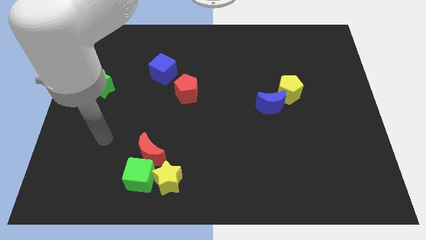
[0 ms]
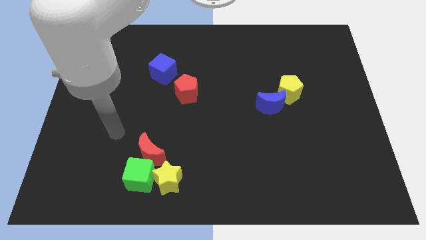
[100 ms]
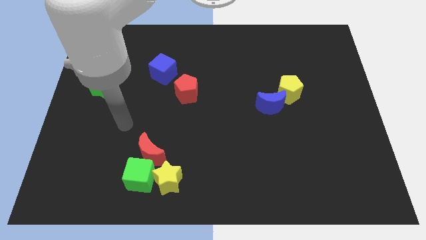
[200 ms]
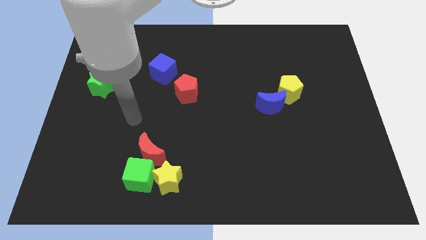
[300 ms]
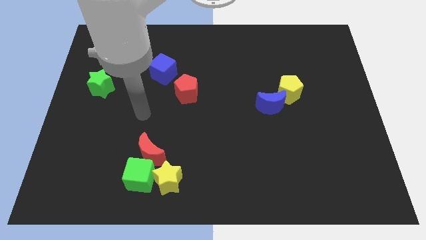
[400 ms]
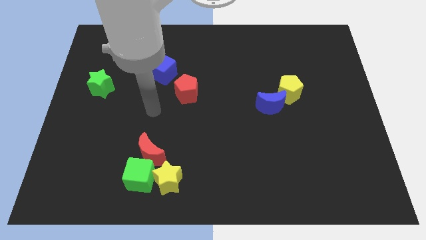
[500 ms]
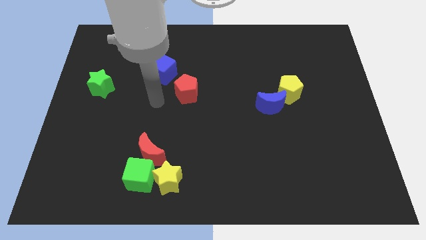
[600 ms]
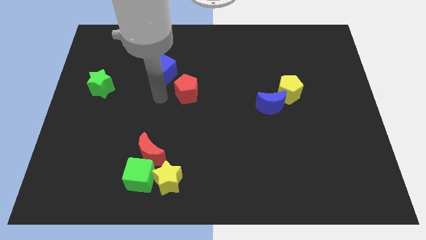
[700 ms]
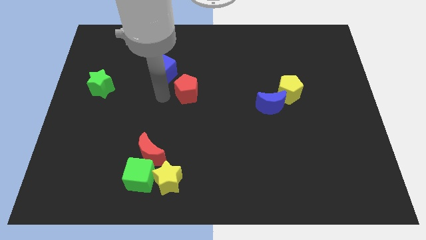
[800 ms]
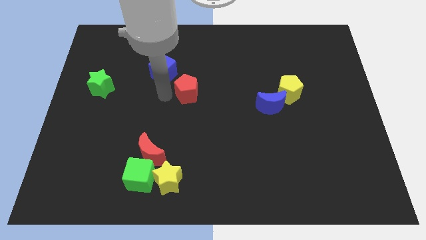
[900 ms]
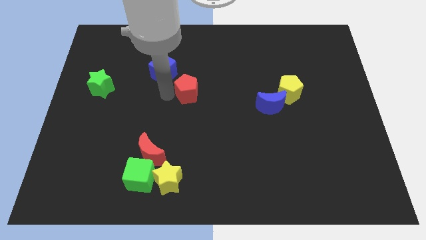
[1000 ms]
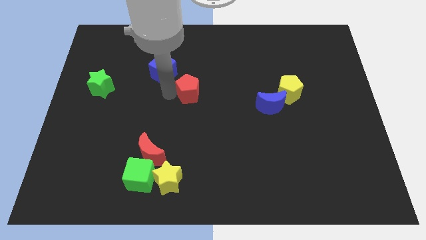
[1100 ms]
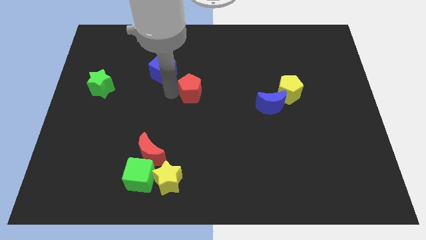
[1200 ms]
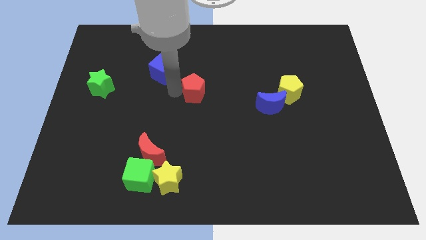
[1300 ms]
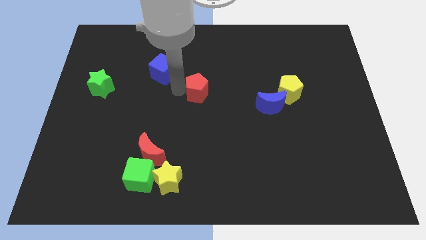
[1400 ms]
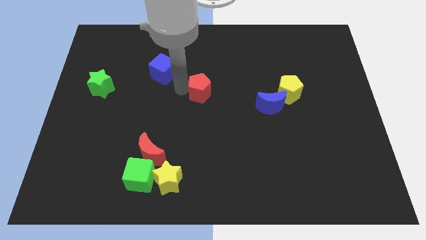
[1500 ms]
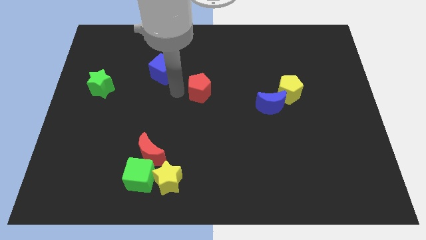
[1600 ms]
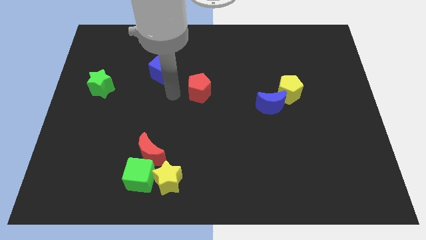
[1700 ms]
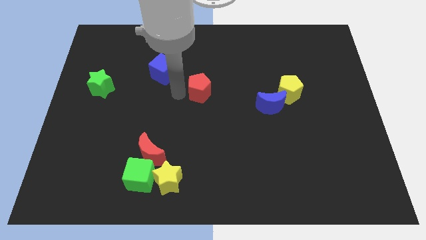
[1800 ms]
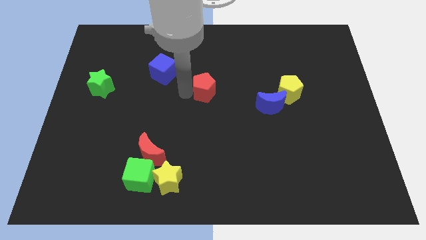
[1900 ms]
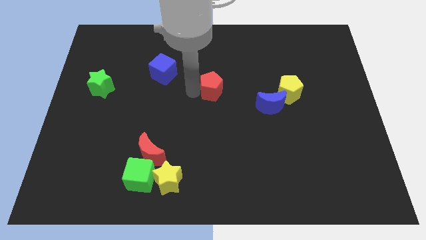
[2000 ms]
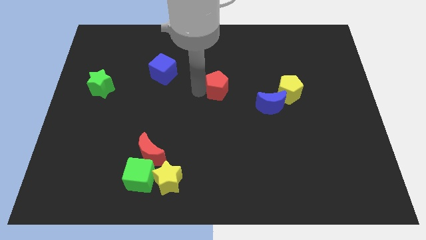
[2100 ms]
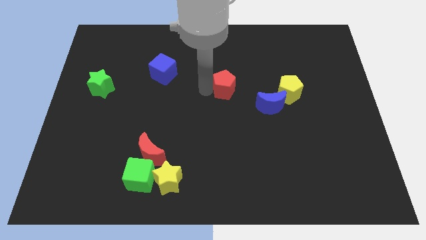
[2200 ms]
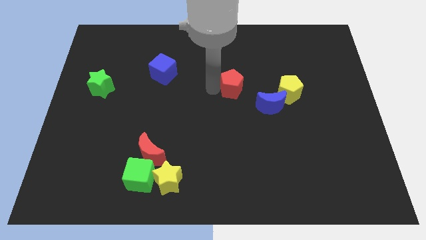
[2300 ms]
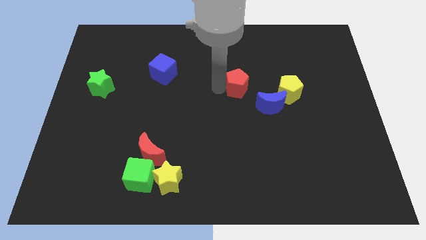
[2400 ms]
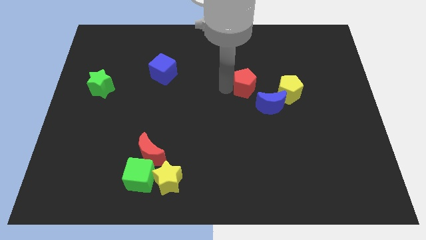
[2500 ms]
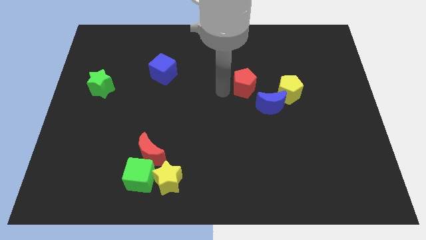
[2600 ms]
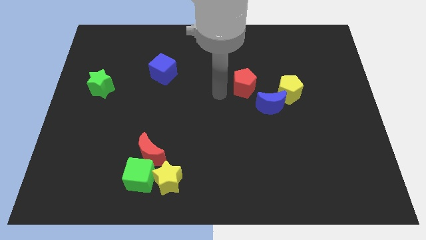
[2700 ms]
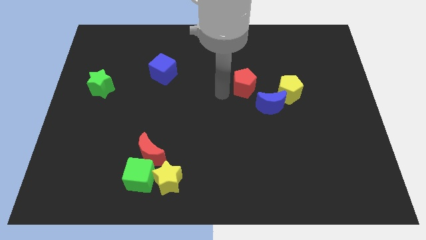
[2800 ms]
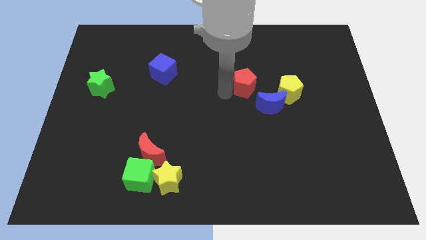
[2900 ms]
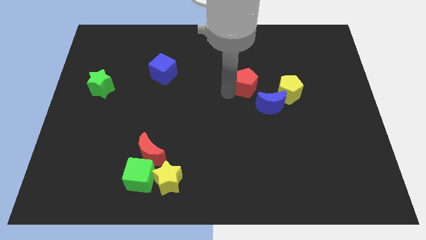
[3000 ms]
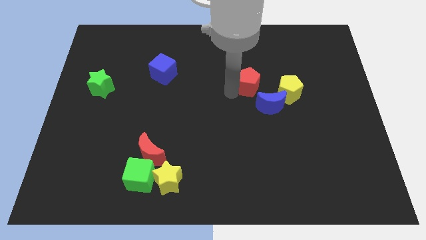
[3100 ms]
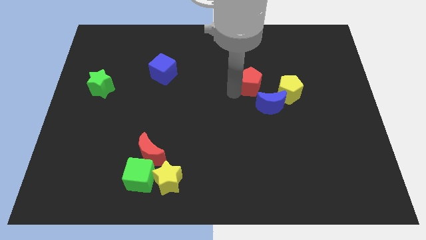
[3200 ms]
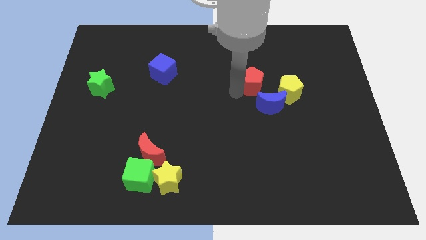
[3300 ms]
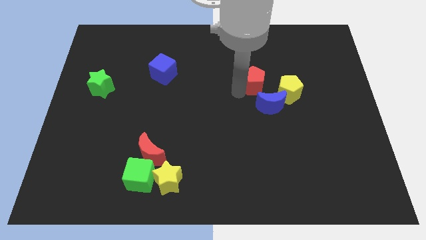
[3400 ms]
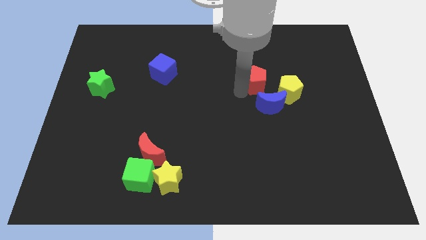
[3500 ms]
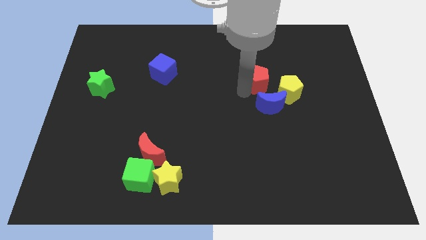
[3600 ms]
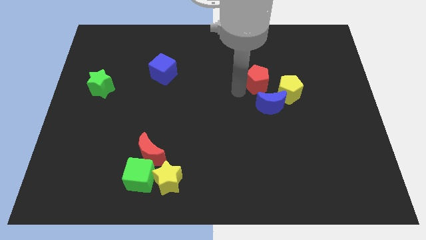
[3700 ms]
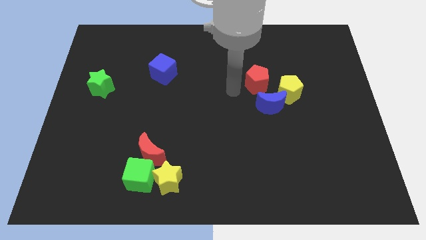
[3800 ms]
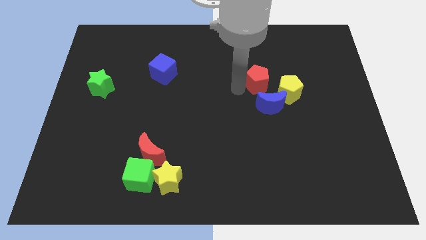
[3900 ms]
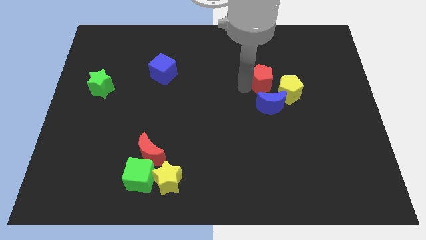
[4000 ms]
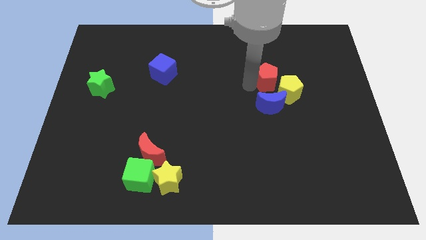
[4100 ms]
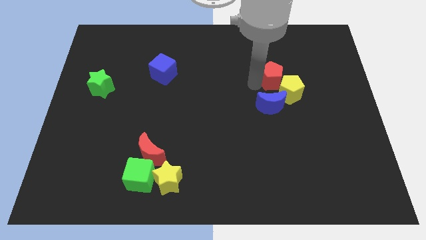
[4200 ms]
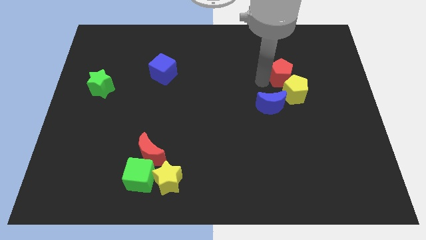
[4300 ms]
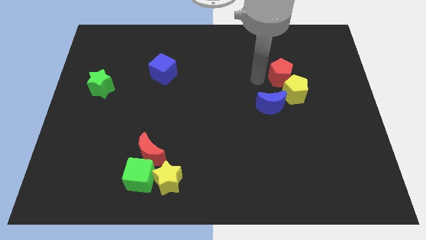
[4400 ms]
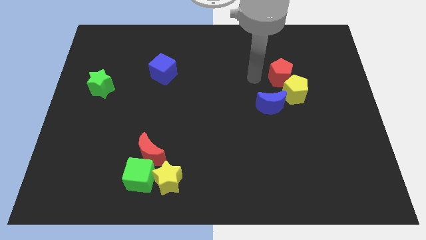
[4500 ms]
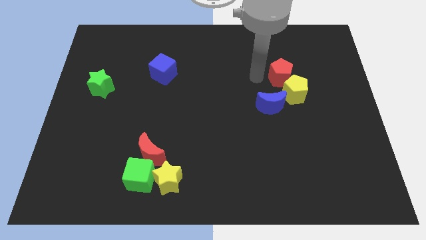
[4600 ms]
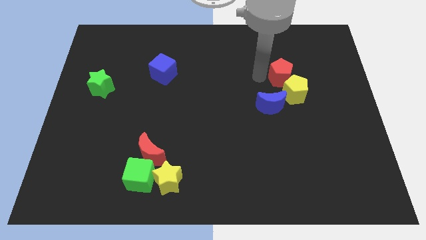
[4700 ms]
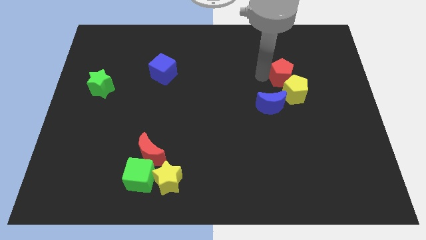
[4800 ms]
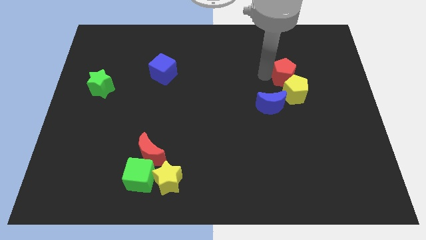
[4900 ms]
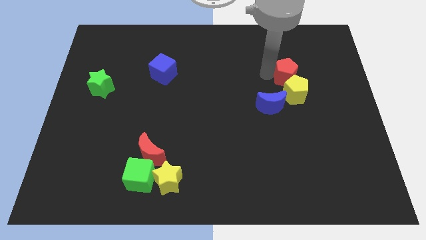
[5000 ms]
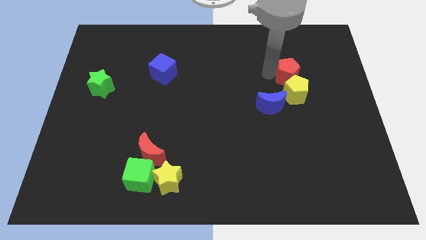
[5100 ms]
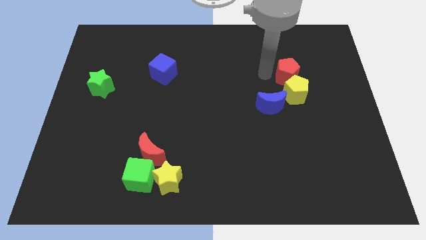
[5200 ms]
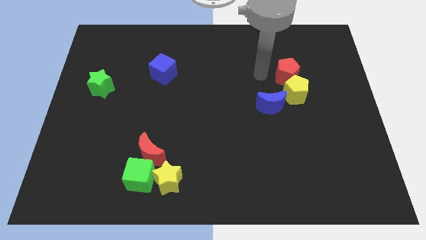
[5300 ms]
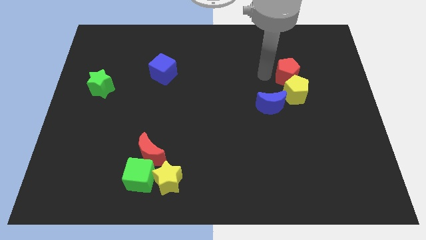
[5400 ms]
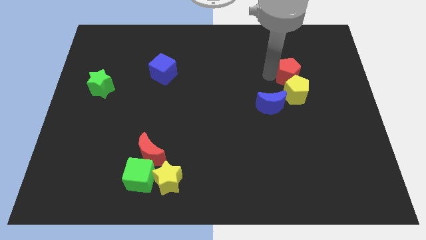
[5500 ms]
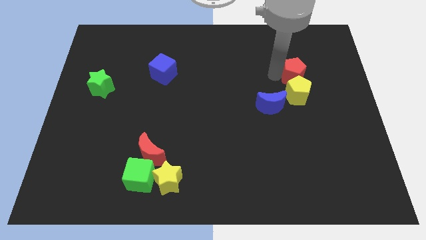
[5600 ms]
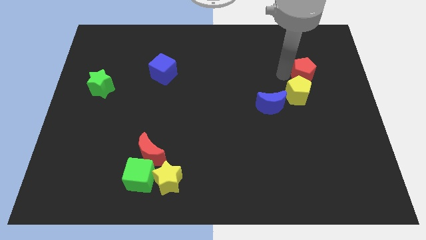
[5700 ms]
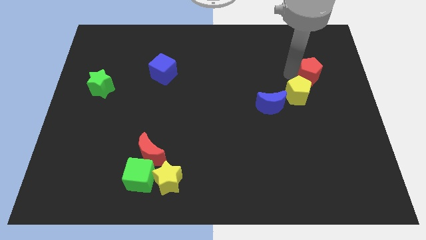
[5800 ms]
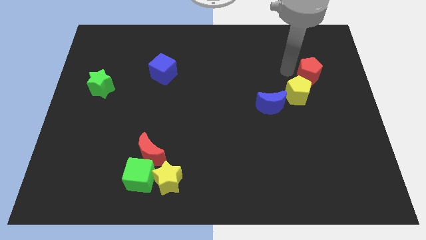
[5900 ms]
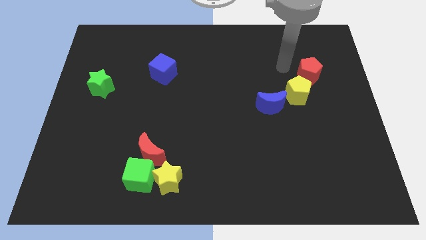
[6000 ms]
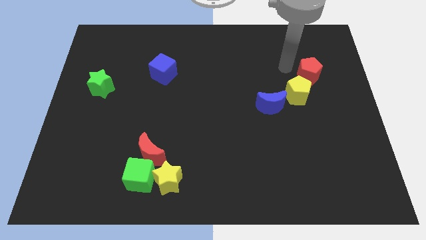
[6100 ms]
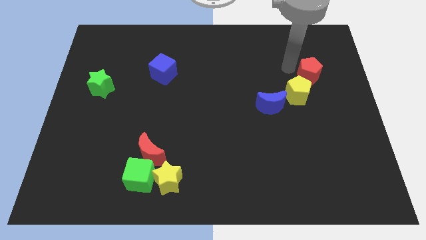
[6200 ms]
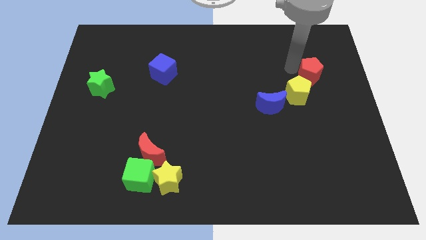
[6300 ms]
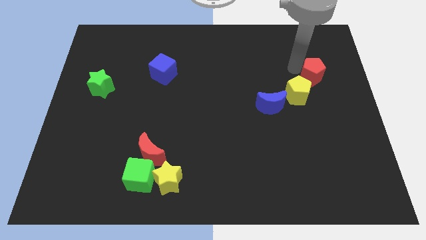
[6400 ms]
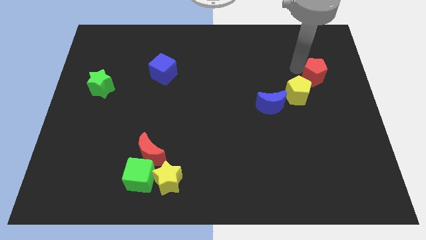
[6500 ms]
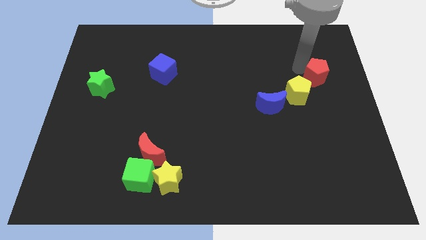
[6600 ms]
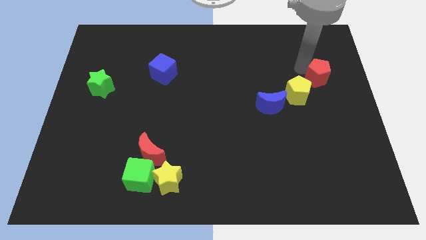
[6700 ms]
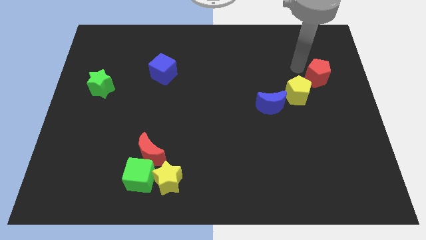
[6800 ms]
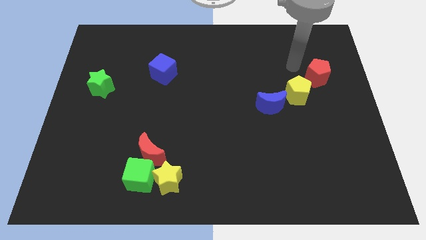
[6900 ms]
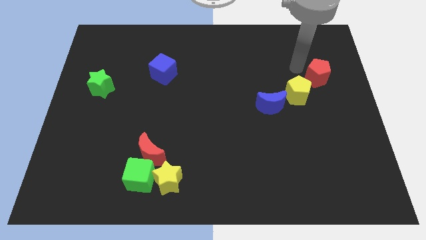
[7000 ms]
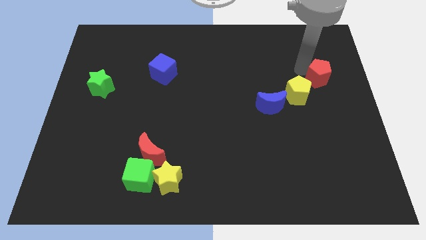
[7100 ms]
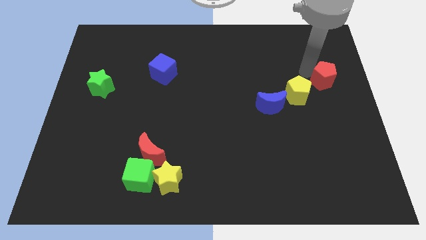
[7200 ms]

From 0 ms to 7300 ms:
push the red pentagon to the right side of the board
